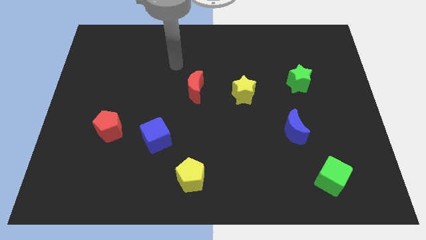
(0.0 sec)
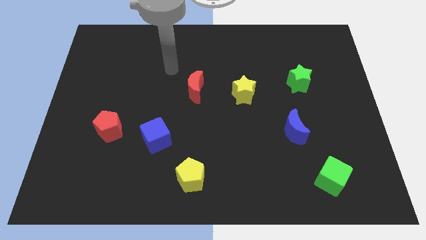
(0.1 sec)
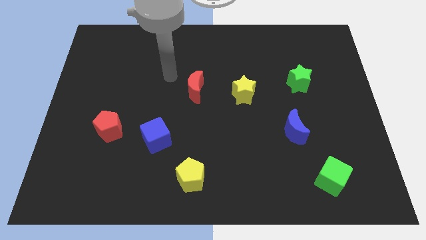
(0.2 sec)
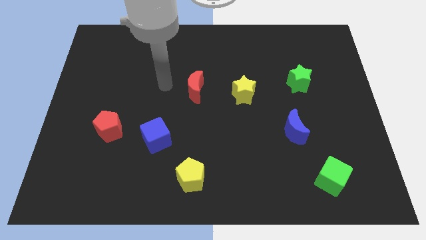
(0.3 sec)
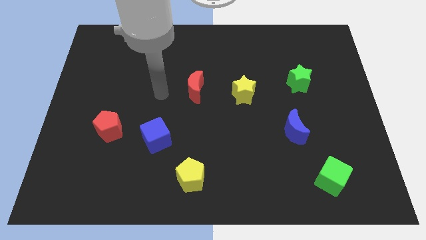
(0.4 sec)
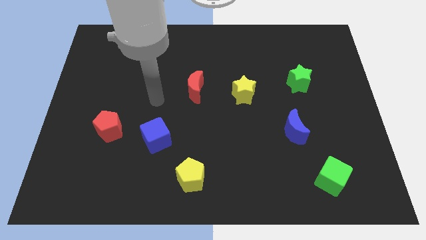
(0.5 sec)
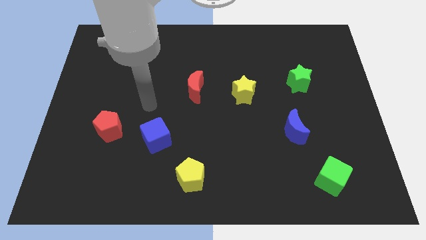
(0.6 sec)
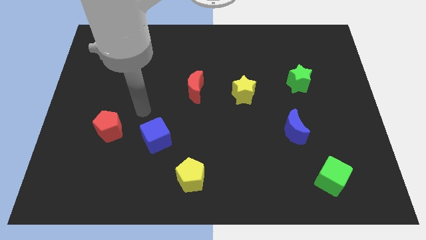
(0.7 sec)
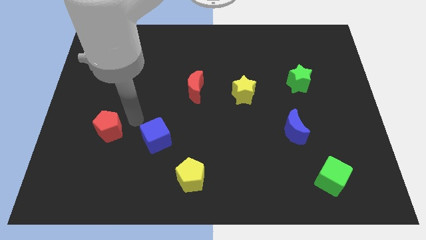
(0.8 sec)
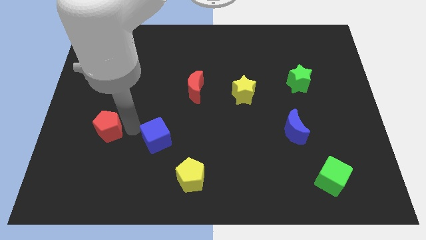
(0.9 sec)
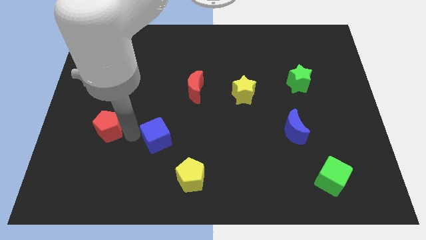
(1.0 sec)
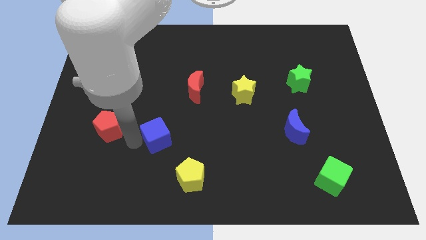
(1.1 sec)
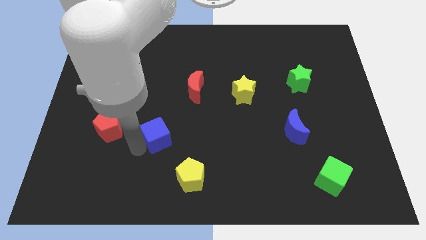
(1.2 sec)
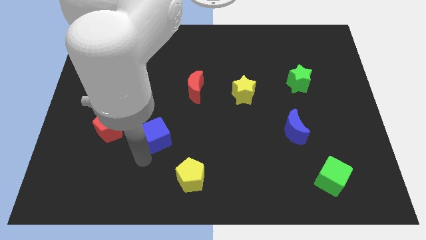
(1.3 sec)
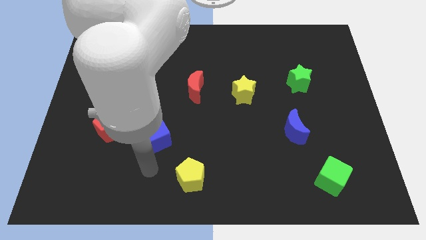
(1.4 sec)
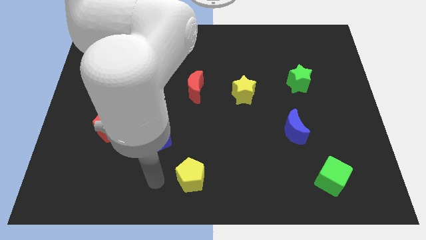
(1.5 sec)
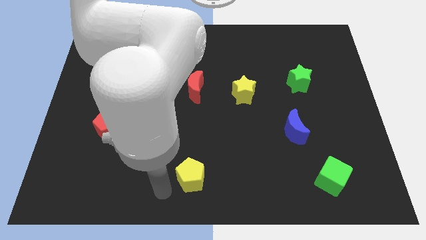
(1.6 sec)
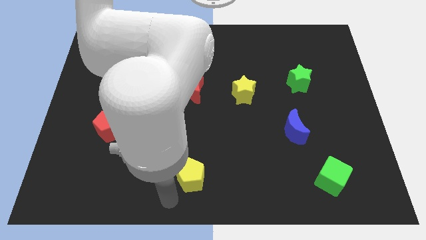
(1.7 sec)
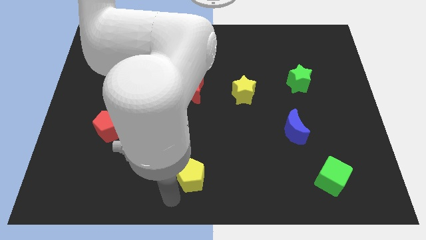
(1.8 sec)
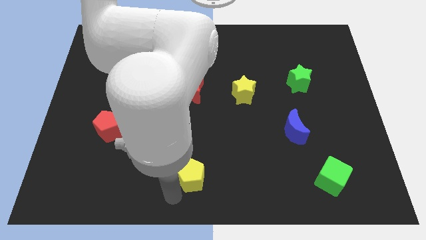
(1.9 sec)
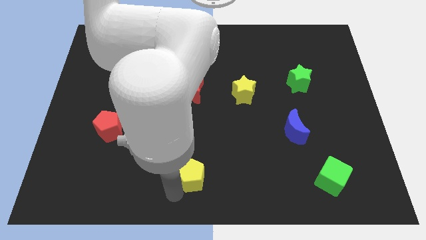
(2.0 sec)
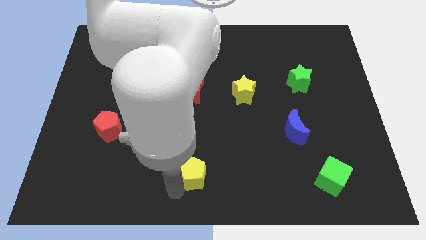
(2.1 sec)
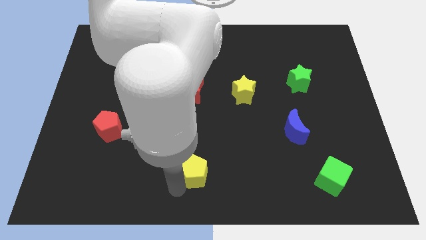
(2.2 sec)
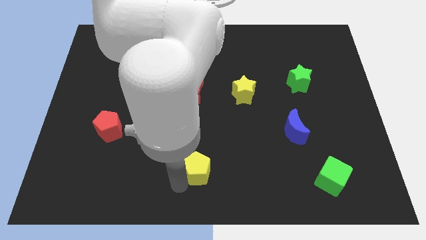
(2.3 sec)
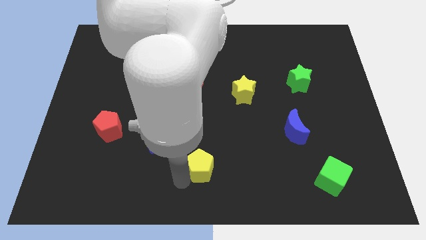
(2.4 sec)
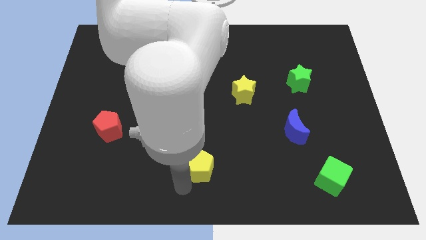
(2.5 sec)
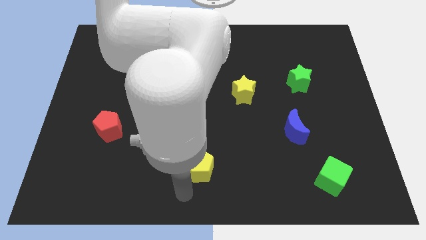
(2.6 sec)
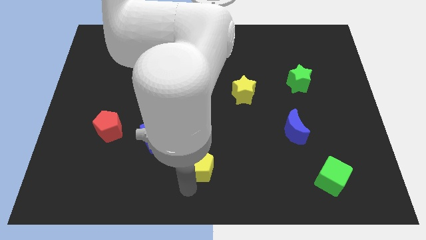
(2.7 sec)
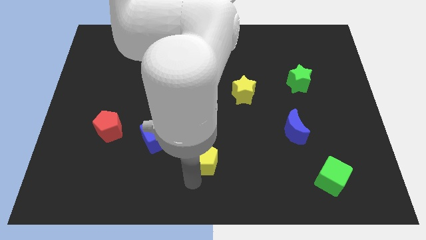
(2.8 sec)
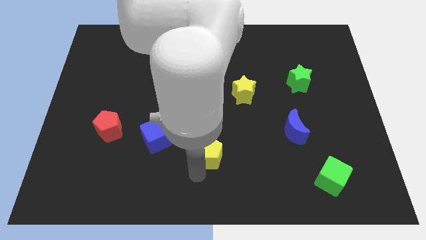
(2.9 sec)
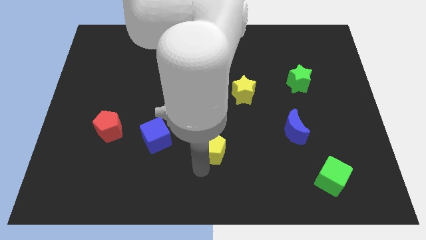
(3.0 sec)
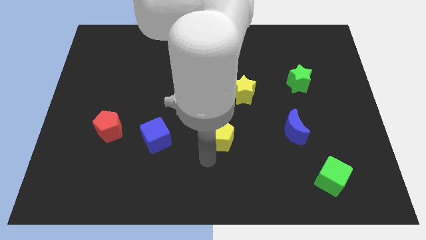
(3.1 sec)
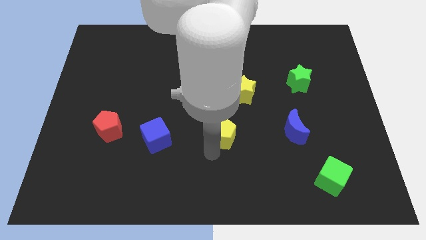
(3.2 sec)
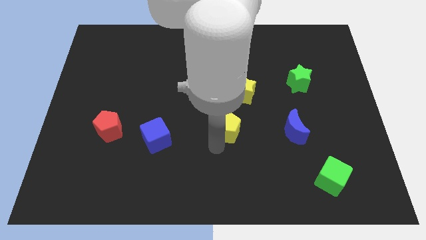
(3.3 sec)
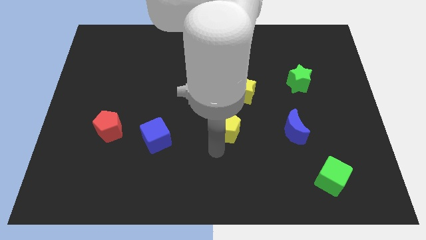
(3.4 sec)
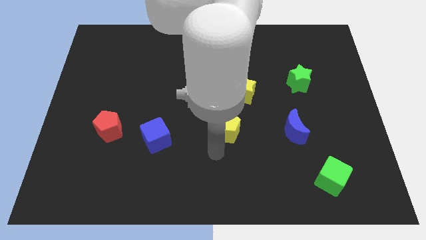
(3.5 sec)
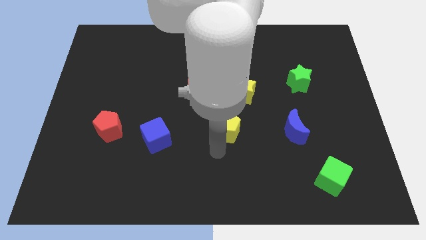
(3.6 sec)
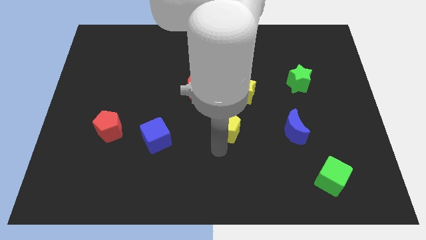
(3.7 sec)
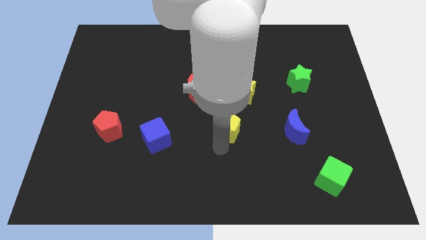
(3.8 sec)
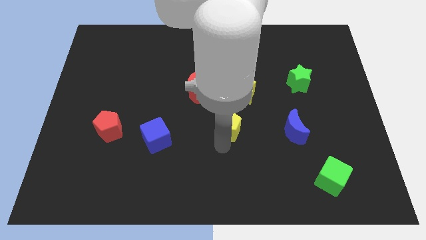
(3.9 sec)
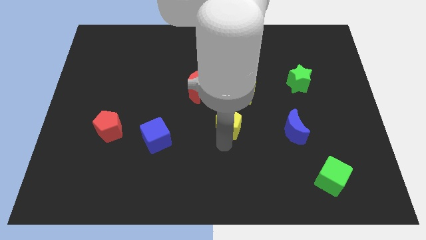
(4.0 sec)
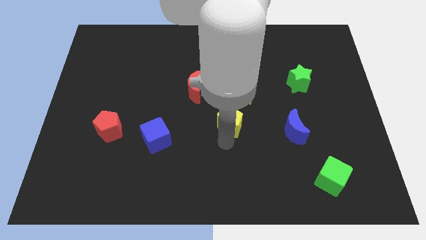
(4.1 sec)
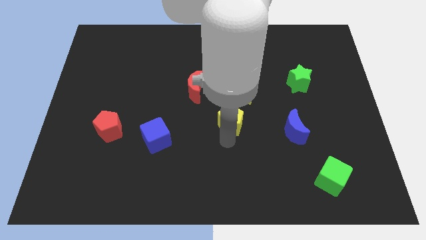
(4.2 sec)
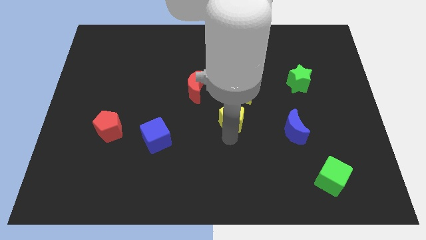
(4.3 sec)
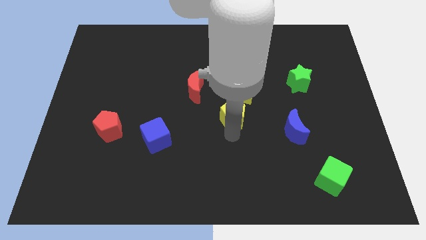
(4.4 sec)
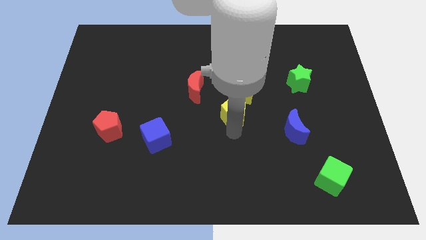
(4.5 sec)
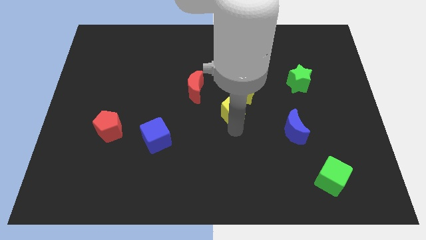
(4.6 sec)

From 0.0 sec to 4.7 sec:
slide the yellow pentagon towards the yellow star

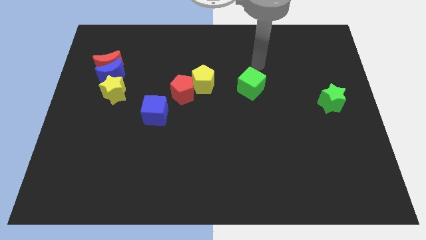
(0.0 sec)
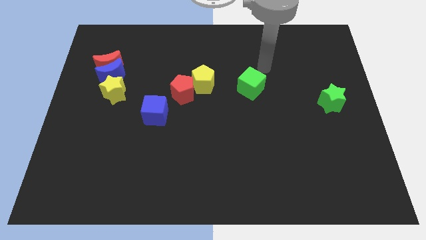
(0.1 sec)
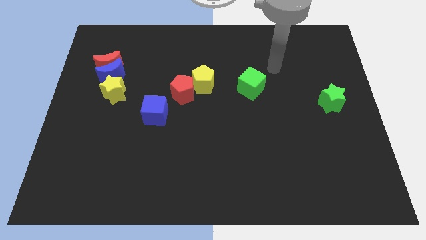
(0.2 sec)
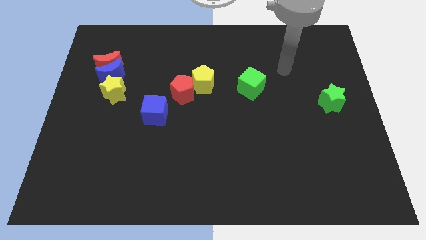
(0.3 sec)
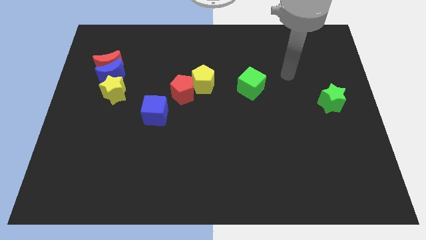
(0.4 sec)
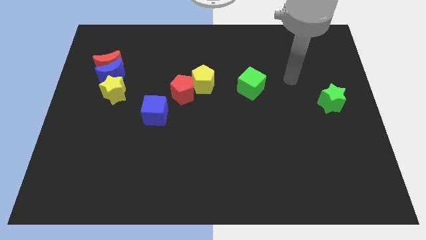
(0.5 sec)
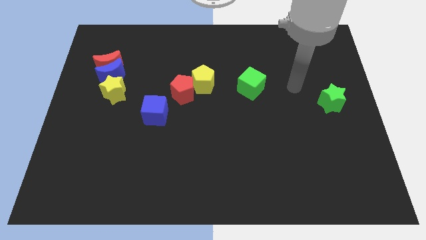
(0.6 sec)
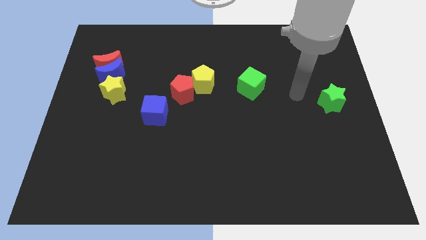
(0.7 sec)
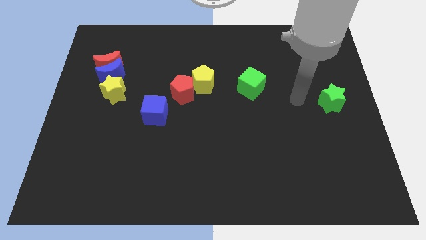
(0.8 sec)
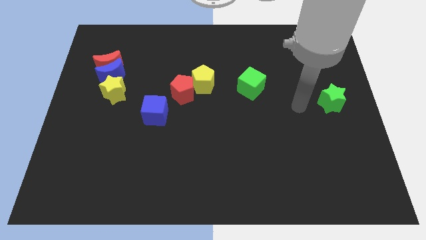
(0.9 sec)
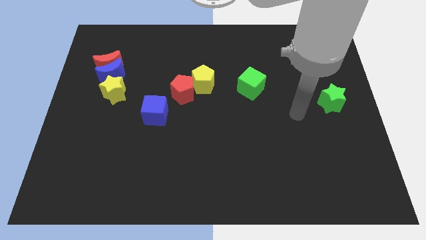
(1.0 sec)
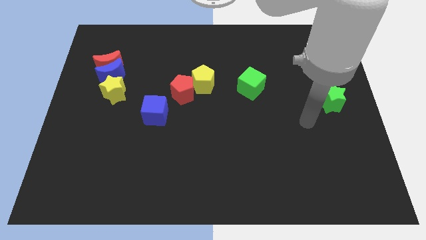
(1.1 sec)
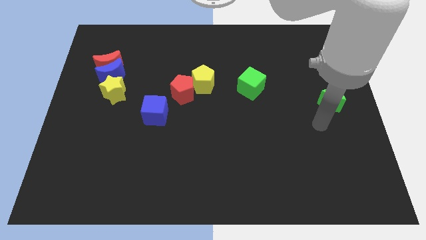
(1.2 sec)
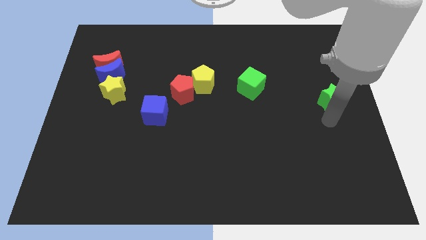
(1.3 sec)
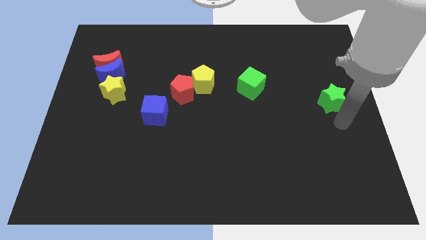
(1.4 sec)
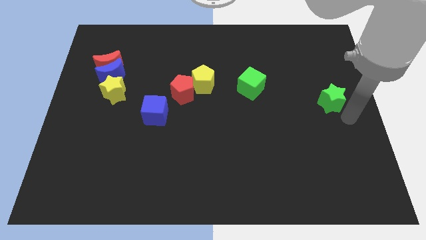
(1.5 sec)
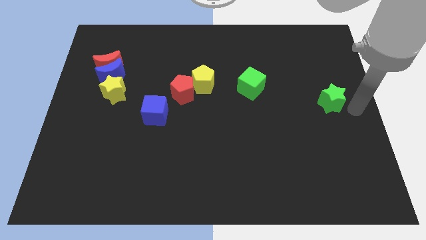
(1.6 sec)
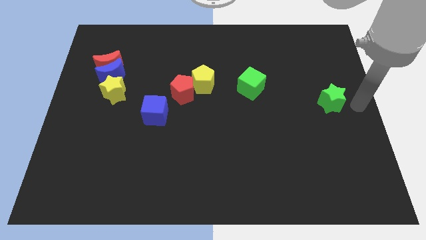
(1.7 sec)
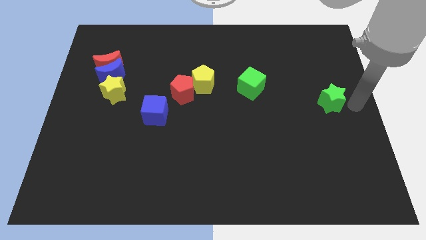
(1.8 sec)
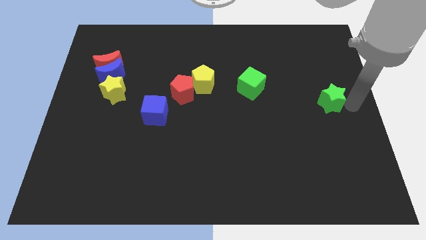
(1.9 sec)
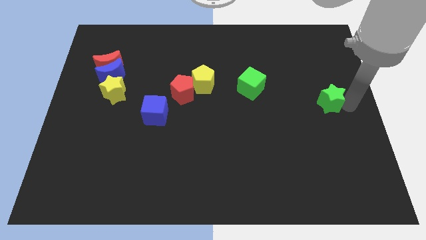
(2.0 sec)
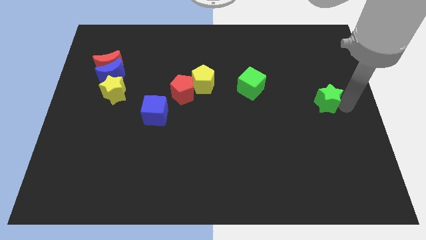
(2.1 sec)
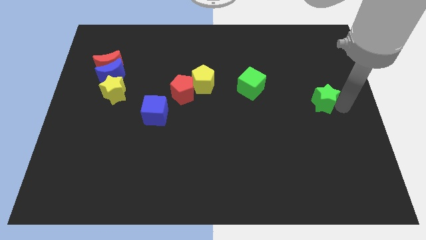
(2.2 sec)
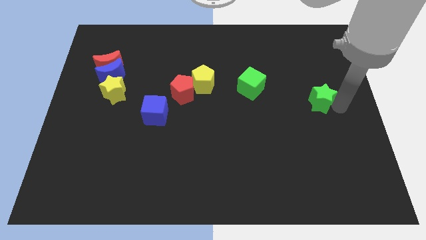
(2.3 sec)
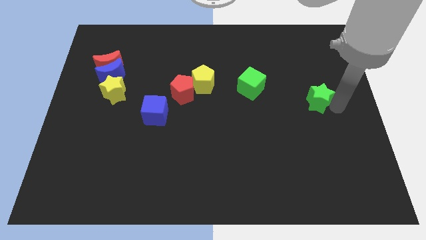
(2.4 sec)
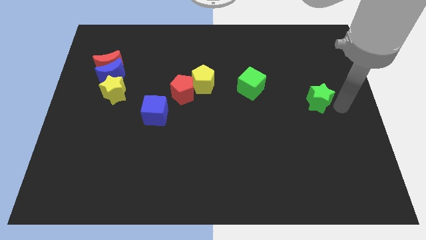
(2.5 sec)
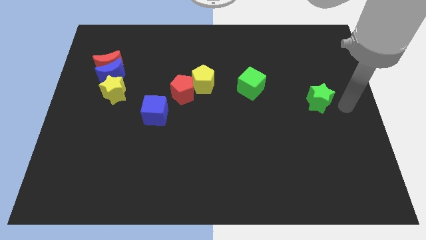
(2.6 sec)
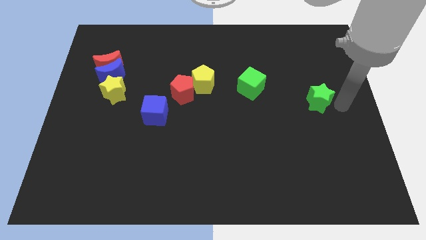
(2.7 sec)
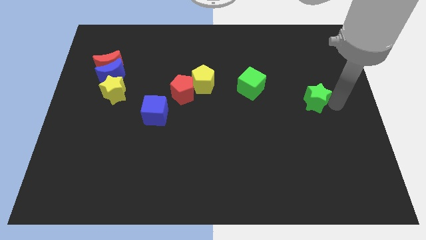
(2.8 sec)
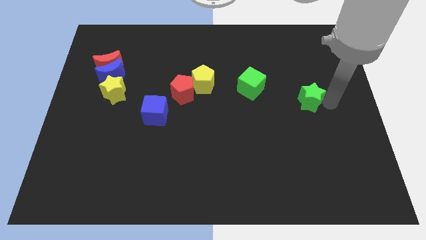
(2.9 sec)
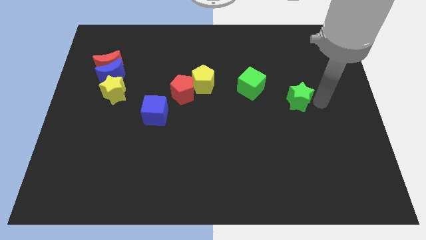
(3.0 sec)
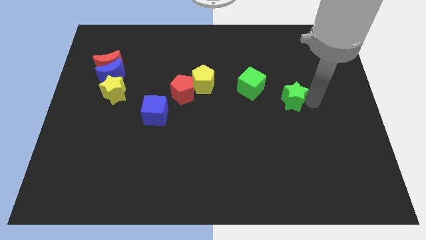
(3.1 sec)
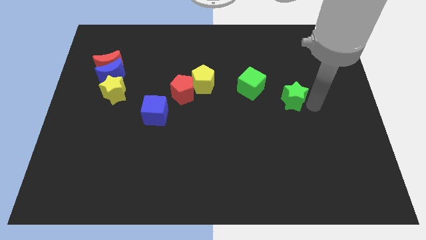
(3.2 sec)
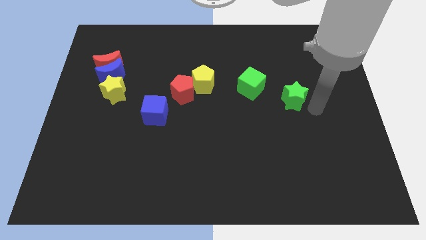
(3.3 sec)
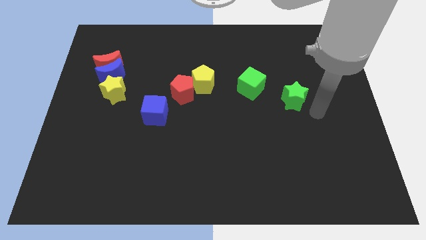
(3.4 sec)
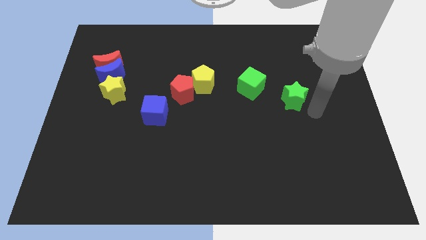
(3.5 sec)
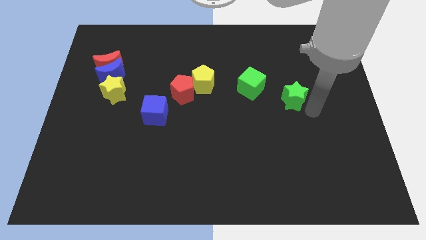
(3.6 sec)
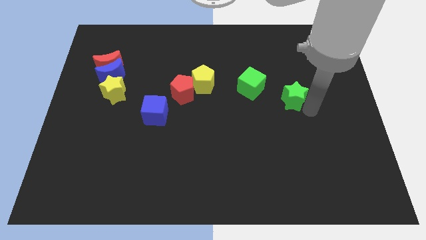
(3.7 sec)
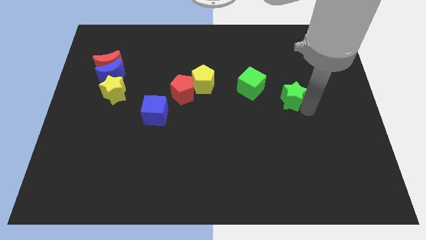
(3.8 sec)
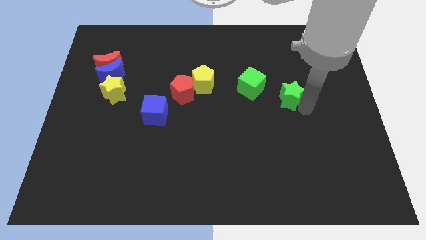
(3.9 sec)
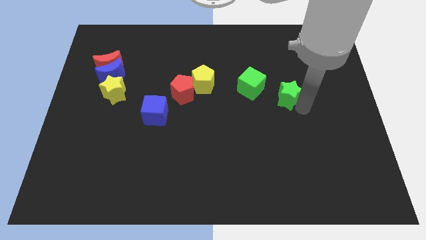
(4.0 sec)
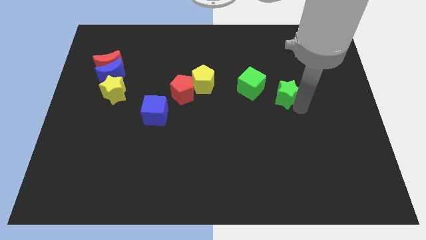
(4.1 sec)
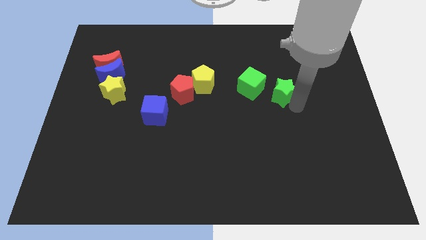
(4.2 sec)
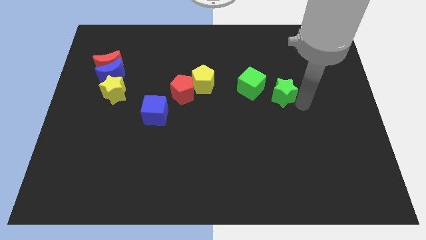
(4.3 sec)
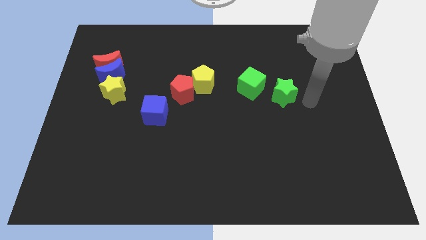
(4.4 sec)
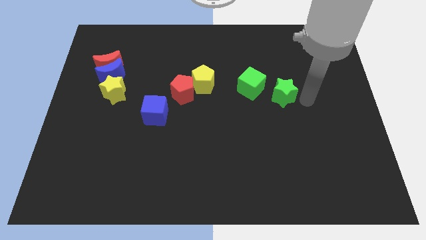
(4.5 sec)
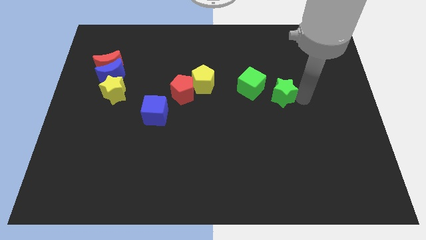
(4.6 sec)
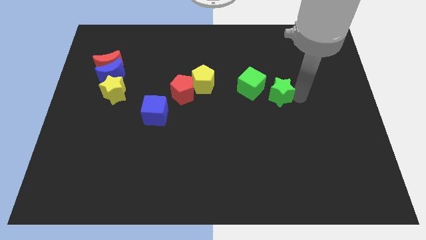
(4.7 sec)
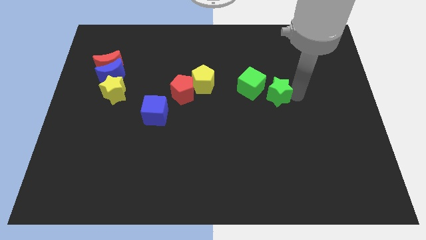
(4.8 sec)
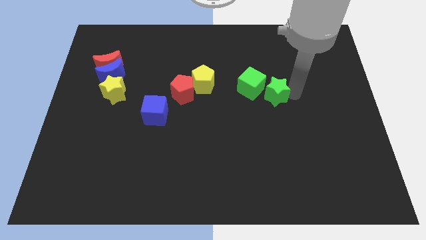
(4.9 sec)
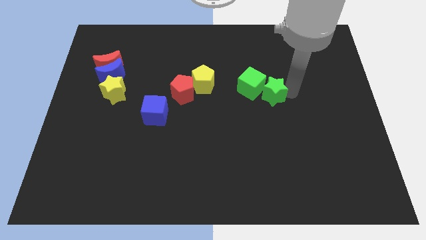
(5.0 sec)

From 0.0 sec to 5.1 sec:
move the green star towards the green cube
